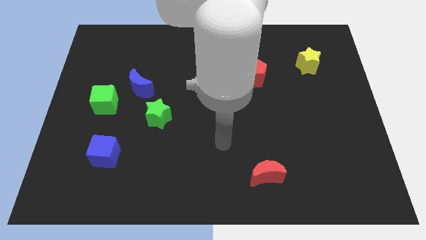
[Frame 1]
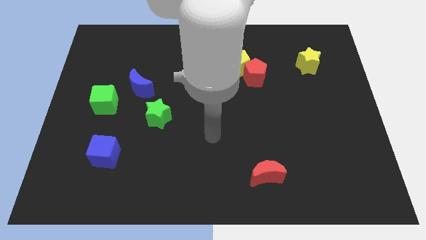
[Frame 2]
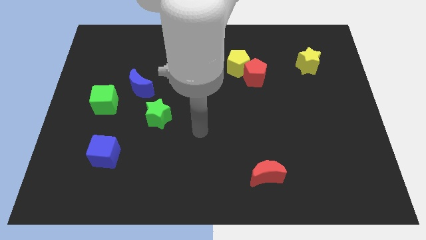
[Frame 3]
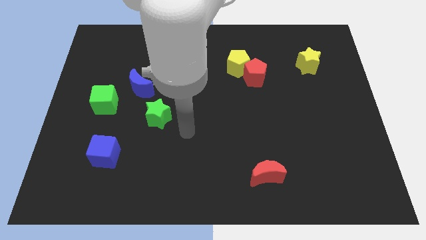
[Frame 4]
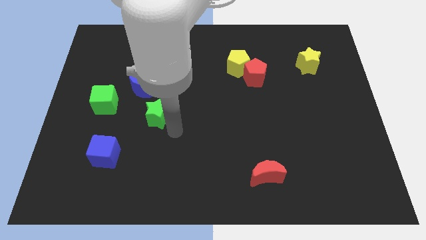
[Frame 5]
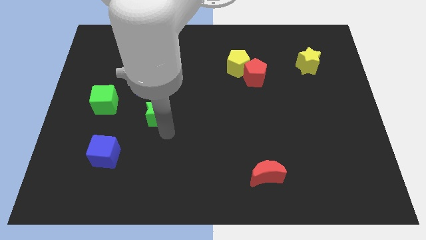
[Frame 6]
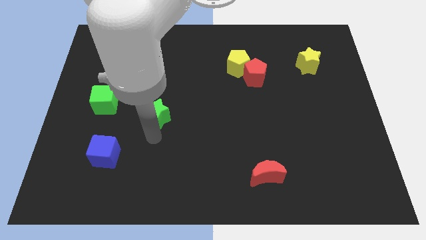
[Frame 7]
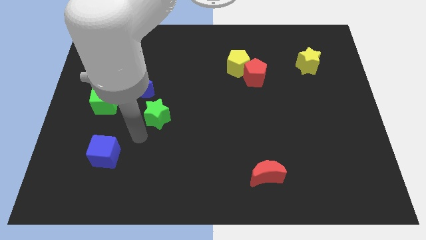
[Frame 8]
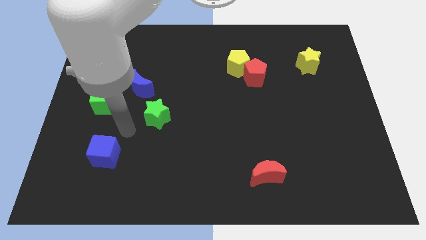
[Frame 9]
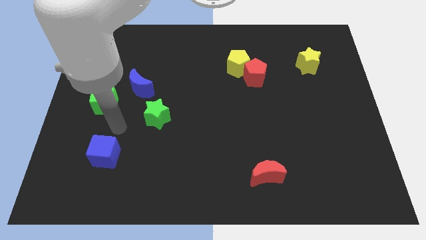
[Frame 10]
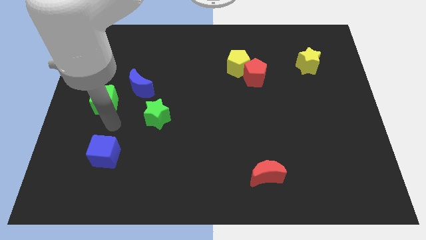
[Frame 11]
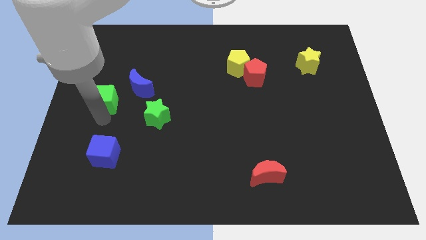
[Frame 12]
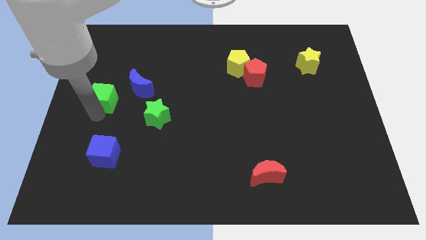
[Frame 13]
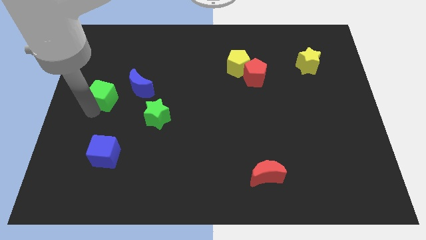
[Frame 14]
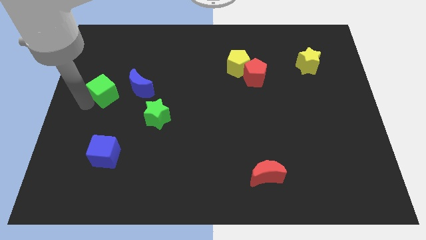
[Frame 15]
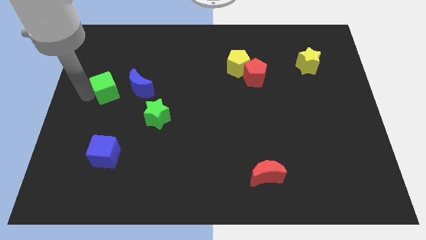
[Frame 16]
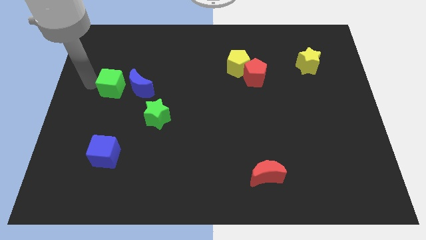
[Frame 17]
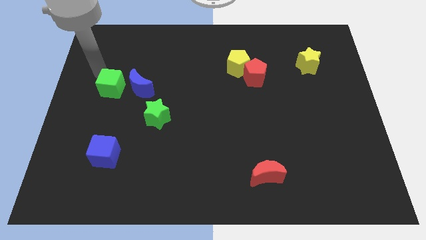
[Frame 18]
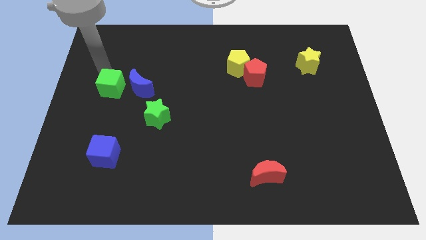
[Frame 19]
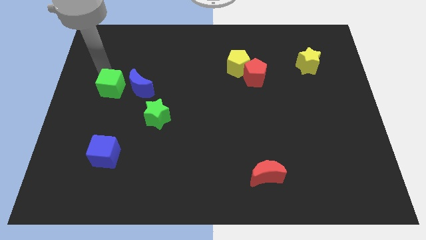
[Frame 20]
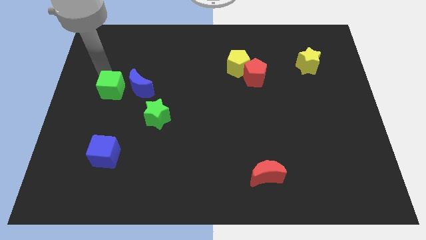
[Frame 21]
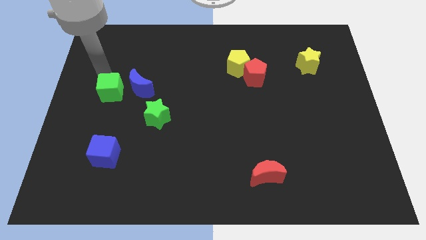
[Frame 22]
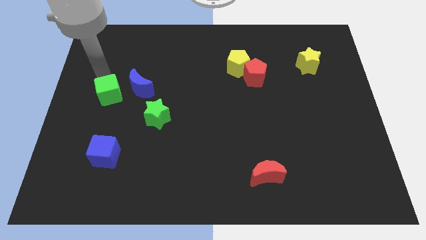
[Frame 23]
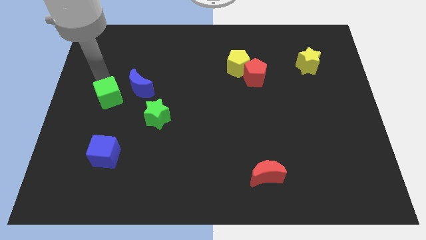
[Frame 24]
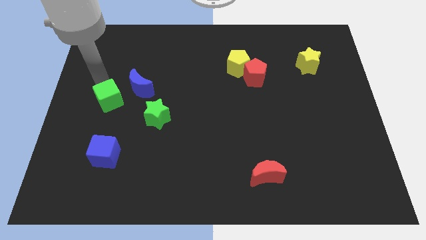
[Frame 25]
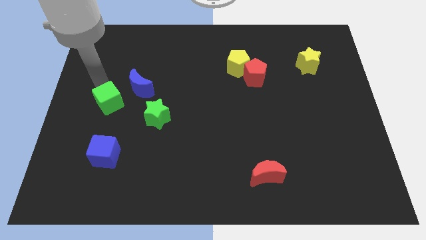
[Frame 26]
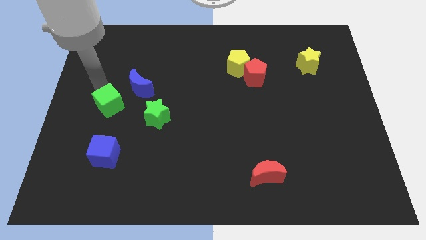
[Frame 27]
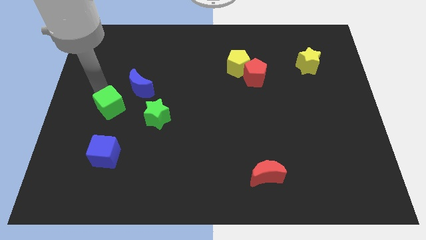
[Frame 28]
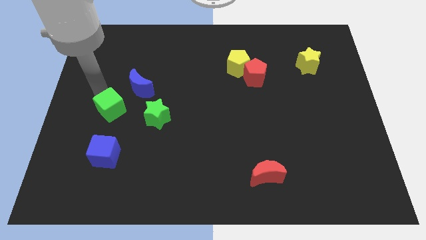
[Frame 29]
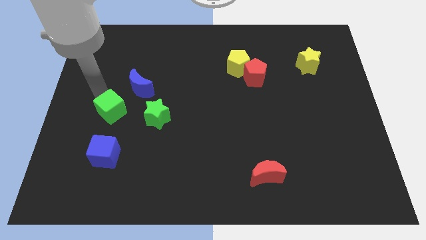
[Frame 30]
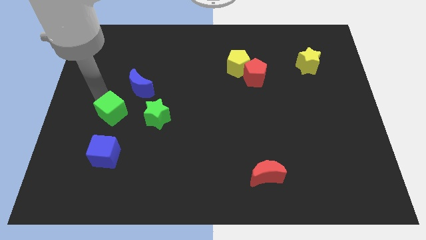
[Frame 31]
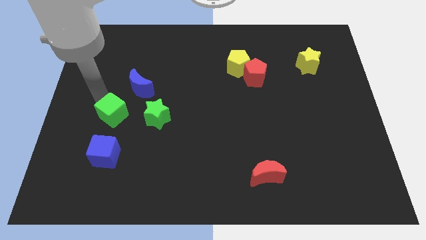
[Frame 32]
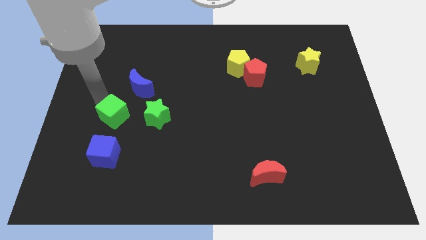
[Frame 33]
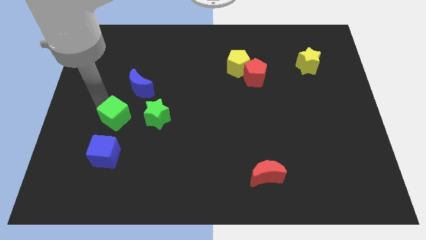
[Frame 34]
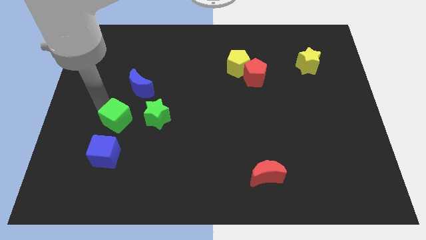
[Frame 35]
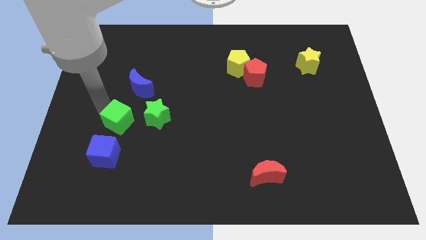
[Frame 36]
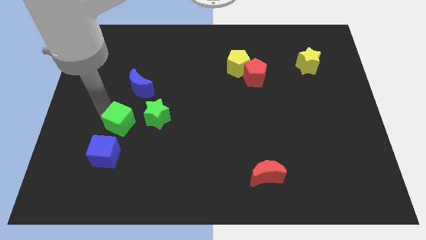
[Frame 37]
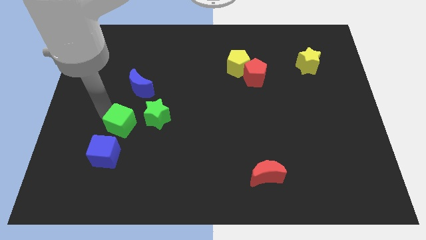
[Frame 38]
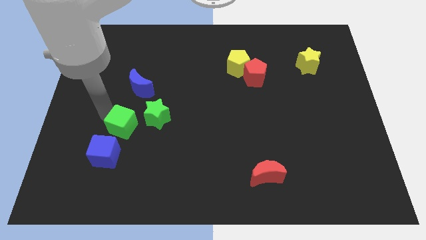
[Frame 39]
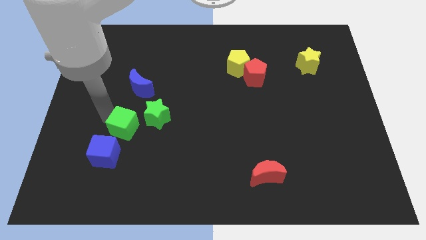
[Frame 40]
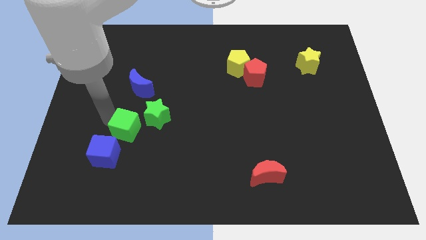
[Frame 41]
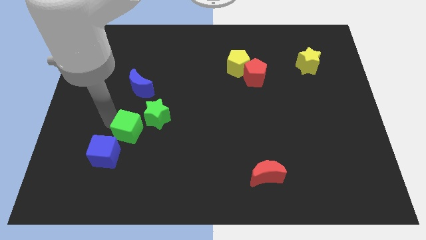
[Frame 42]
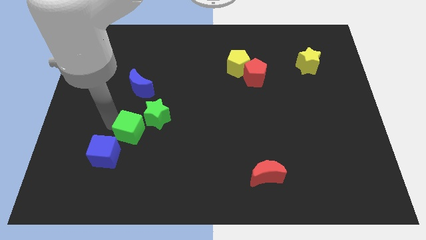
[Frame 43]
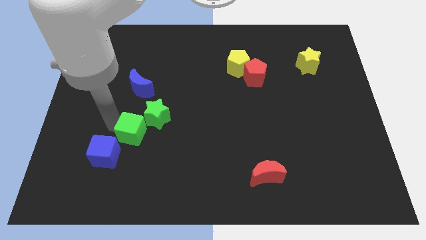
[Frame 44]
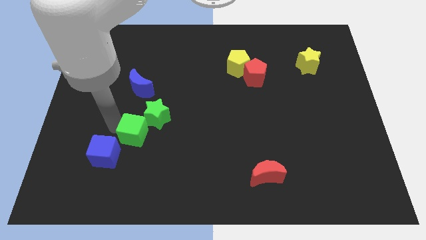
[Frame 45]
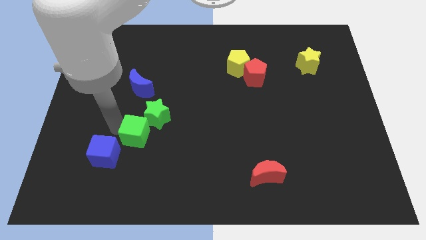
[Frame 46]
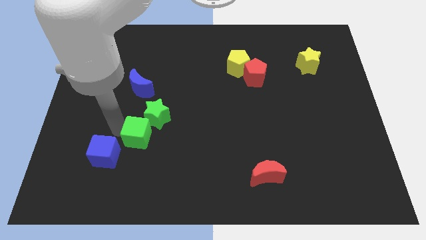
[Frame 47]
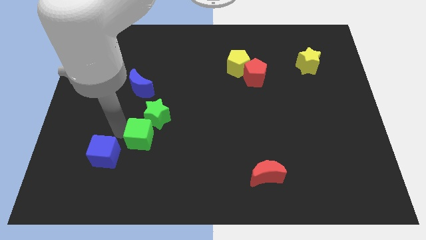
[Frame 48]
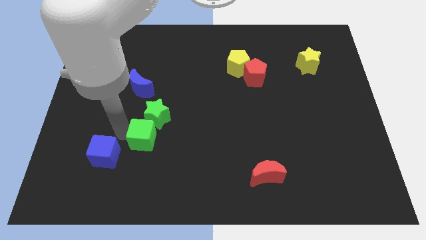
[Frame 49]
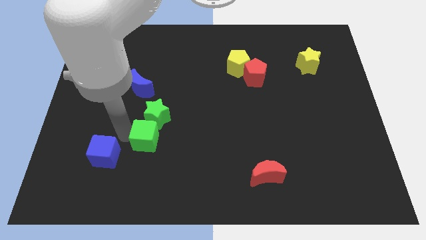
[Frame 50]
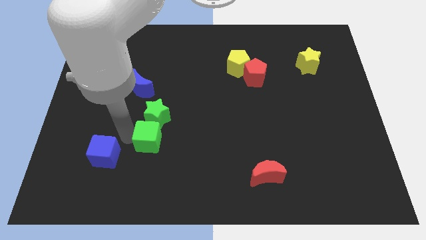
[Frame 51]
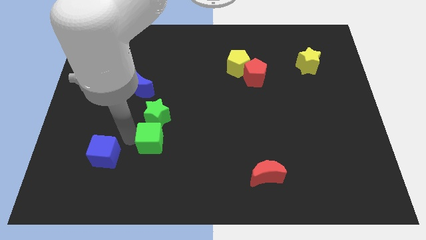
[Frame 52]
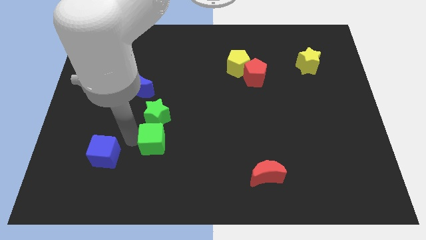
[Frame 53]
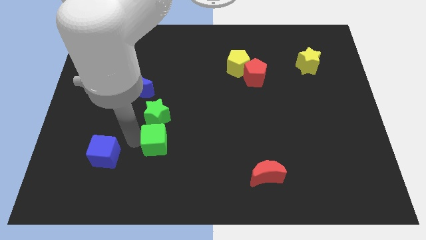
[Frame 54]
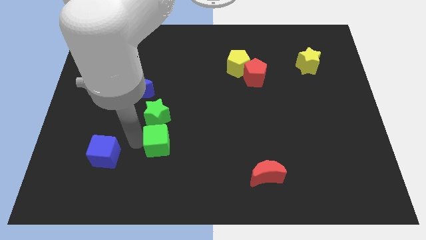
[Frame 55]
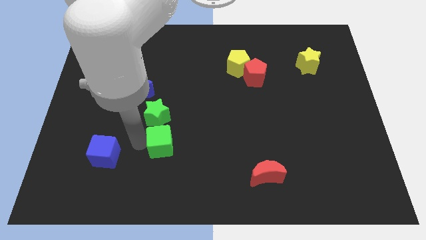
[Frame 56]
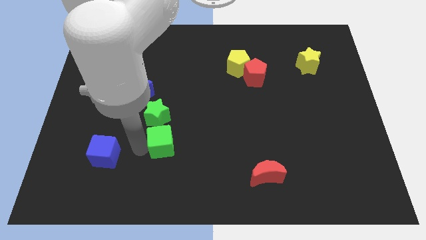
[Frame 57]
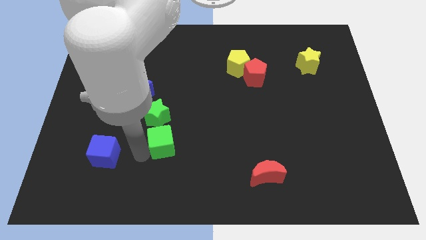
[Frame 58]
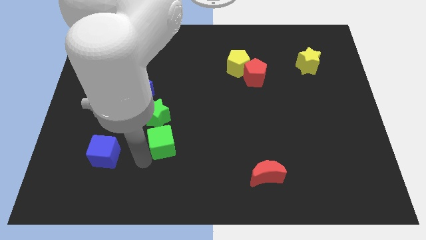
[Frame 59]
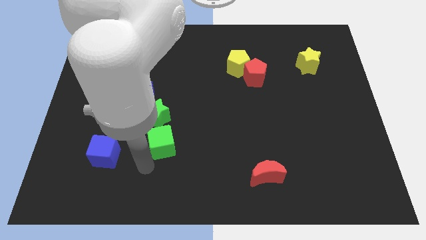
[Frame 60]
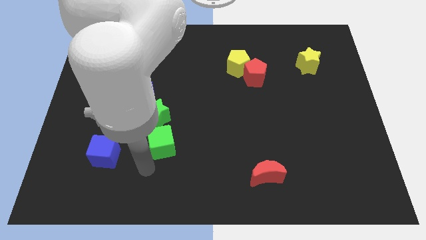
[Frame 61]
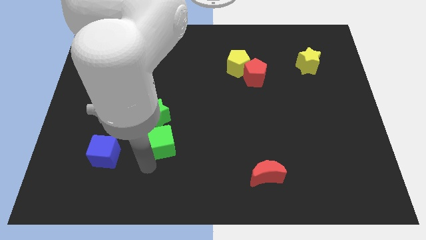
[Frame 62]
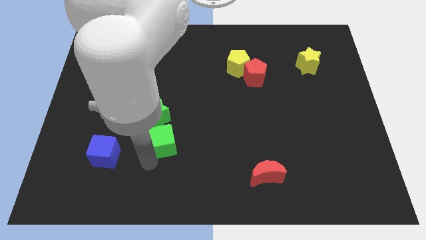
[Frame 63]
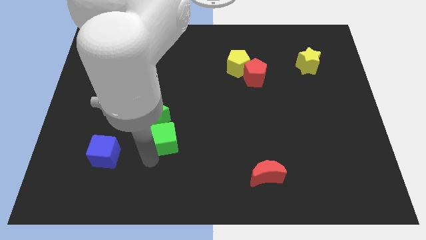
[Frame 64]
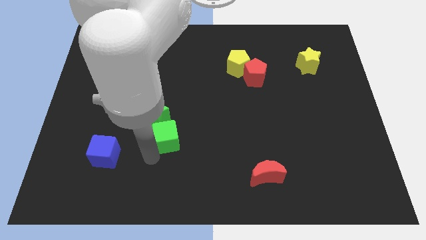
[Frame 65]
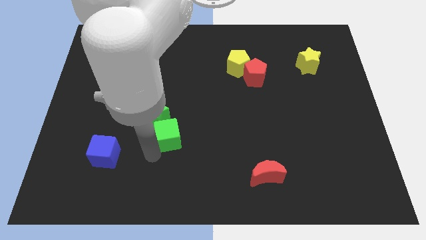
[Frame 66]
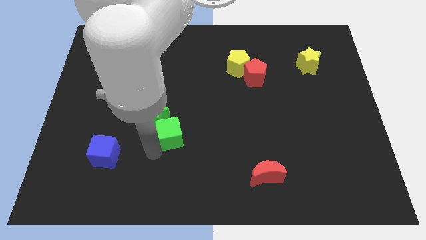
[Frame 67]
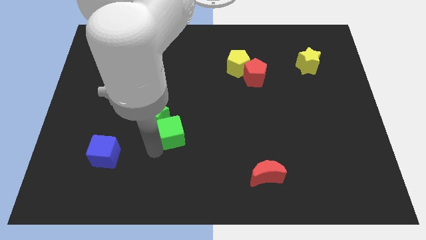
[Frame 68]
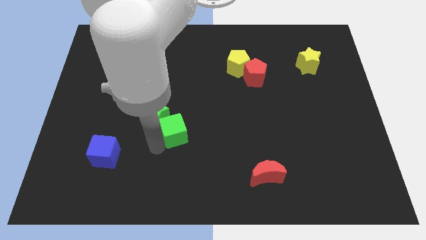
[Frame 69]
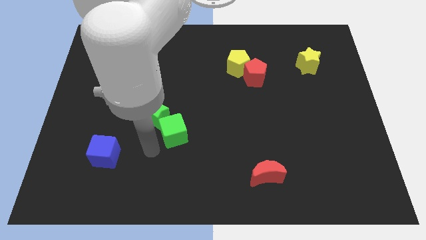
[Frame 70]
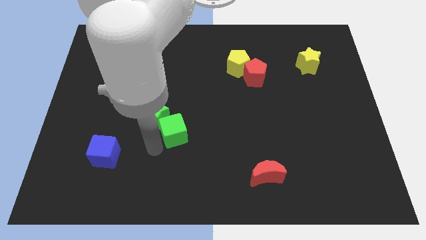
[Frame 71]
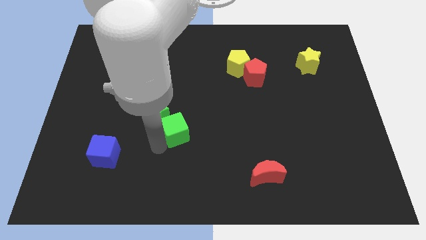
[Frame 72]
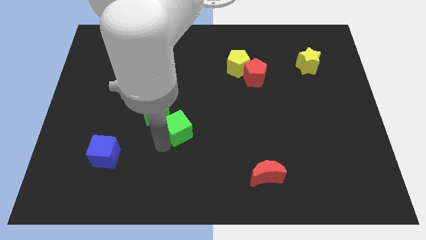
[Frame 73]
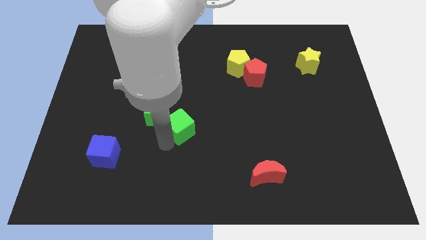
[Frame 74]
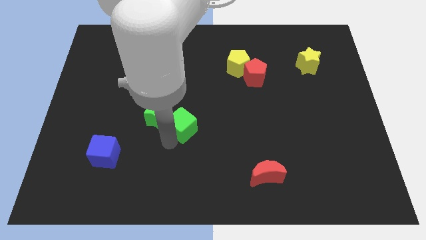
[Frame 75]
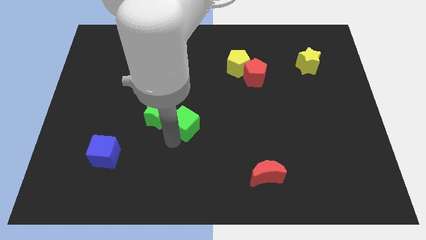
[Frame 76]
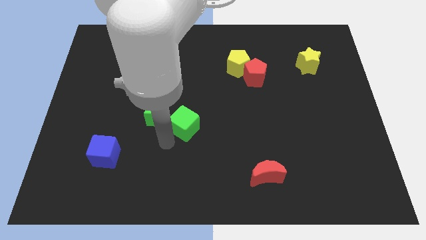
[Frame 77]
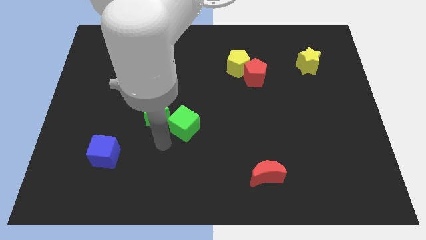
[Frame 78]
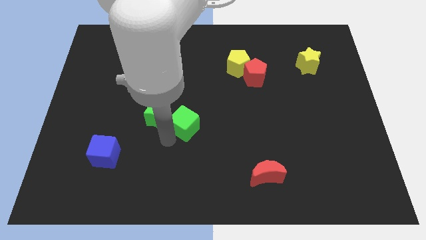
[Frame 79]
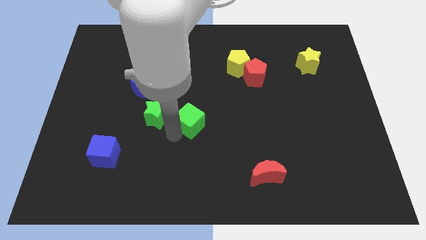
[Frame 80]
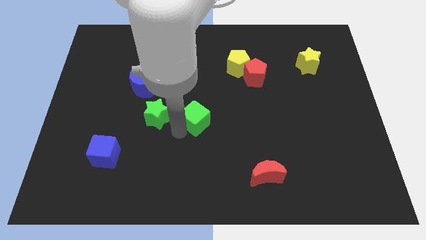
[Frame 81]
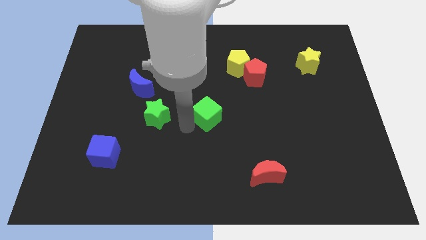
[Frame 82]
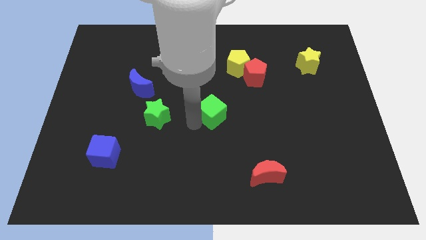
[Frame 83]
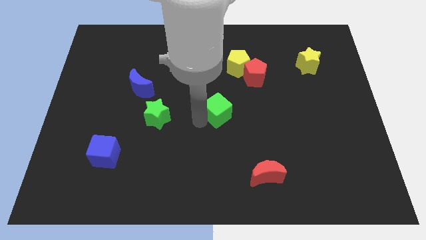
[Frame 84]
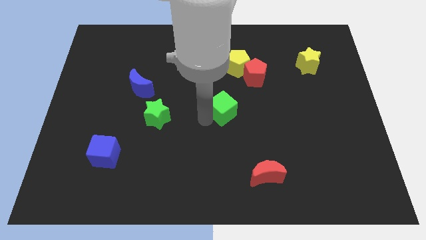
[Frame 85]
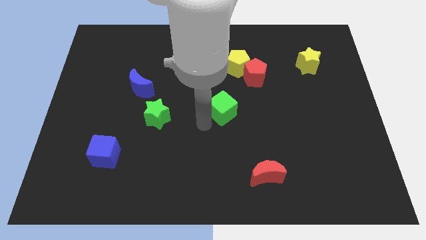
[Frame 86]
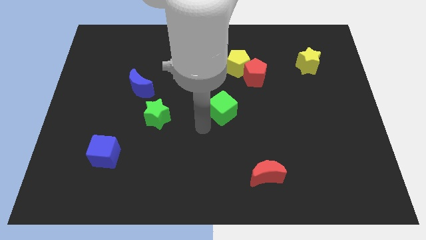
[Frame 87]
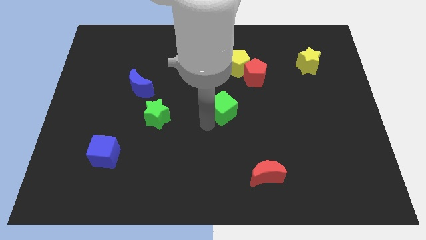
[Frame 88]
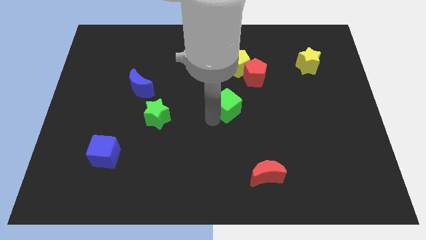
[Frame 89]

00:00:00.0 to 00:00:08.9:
put the green cube to the bottom side of the yellow pentagon
